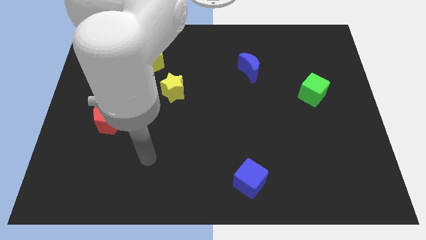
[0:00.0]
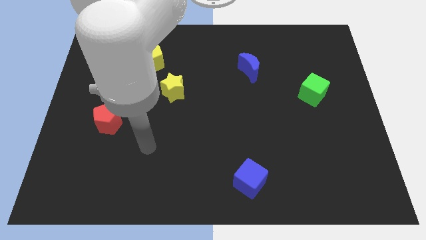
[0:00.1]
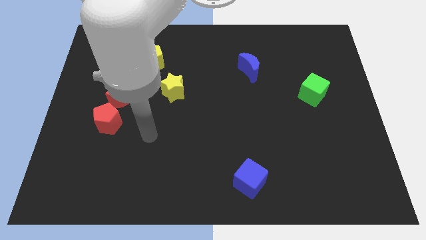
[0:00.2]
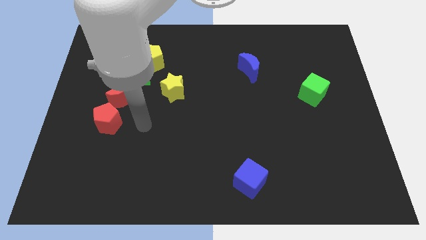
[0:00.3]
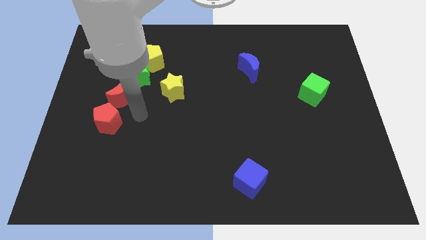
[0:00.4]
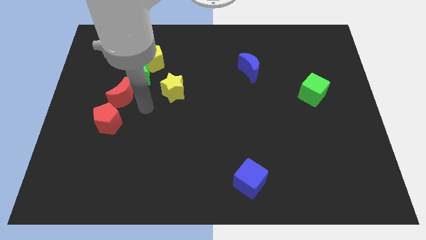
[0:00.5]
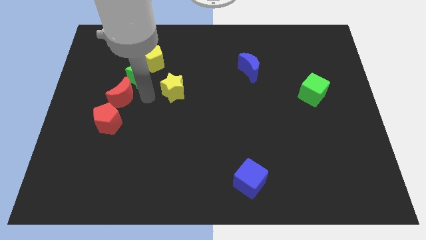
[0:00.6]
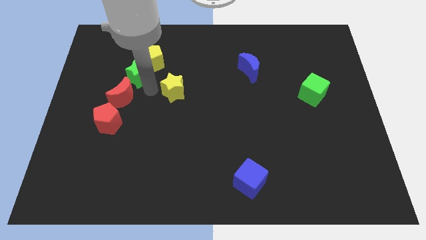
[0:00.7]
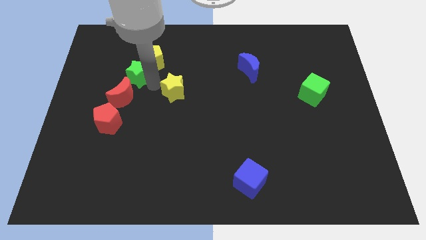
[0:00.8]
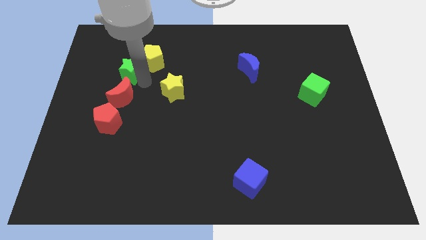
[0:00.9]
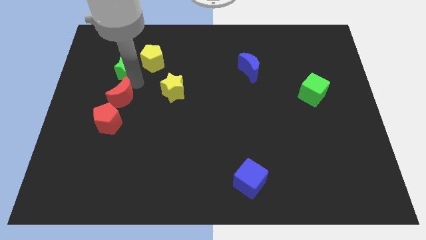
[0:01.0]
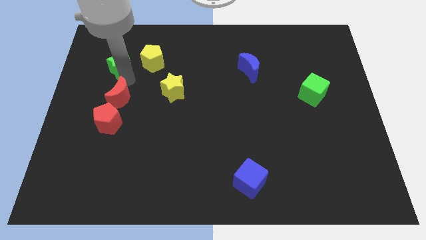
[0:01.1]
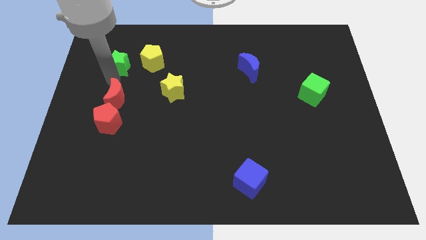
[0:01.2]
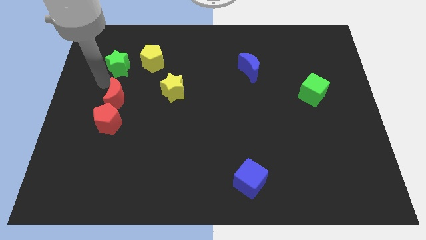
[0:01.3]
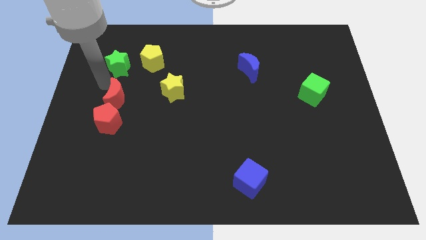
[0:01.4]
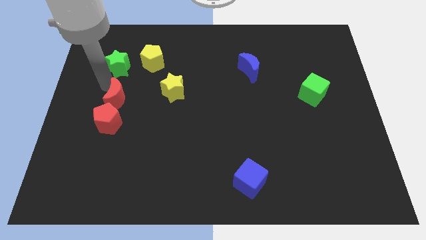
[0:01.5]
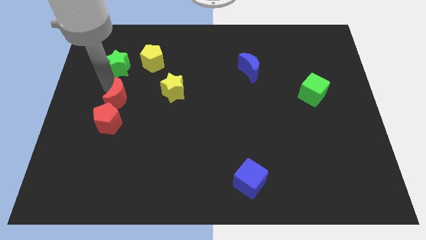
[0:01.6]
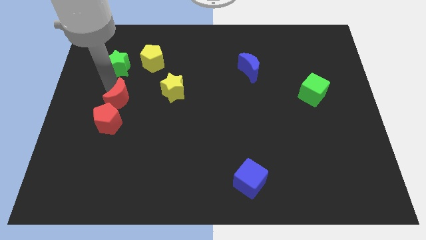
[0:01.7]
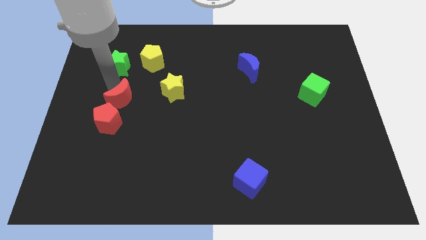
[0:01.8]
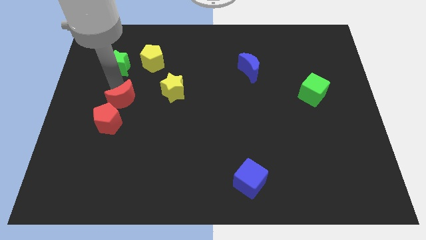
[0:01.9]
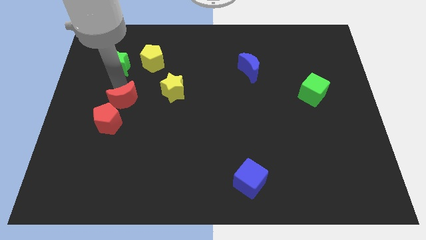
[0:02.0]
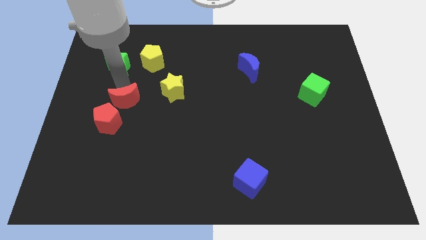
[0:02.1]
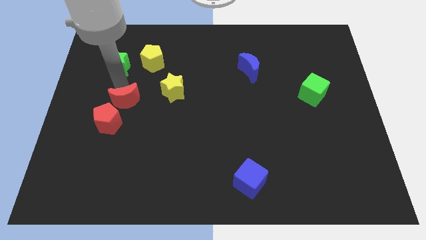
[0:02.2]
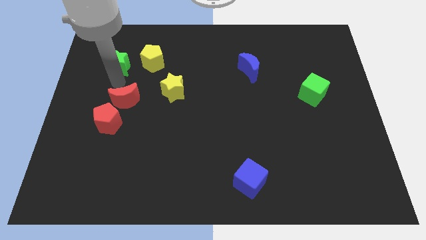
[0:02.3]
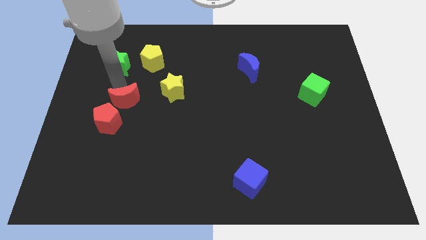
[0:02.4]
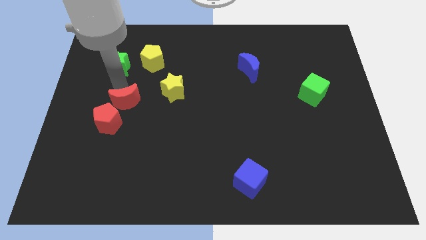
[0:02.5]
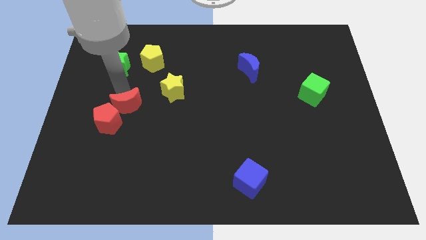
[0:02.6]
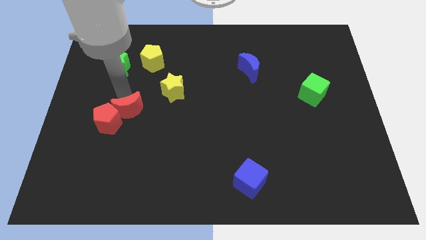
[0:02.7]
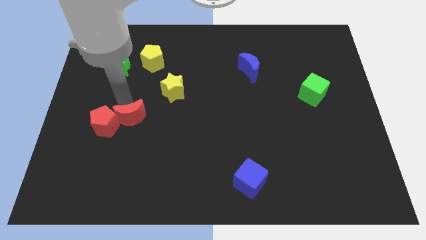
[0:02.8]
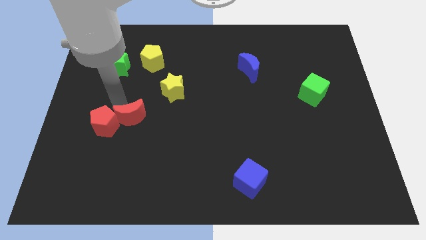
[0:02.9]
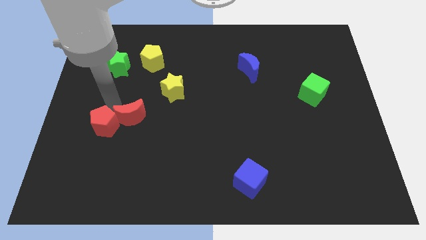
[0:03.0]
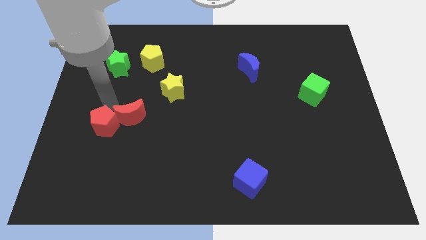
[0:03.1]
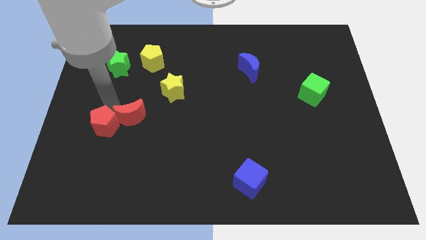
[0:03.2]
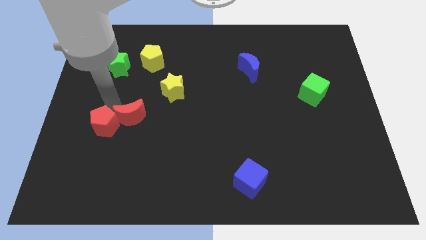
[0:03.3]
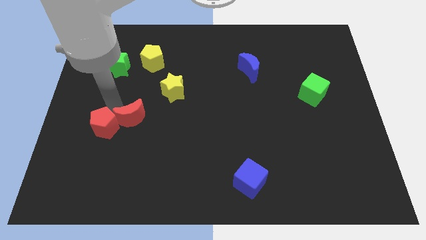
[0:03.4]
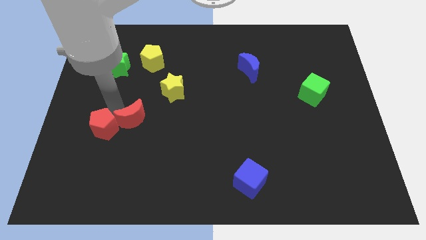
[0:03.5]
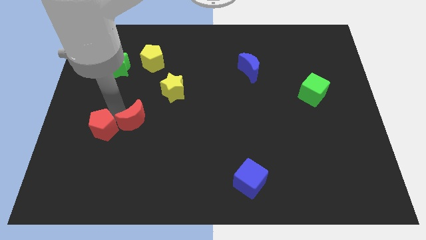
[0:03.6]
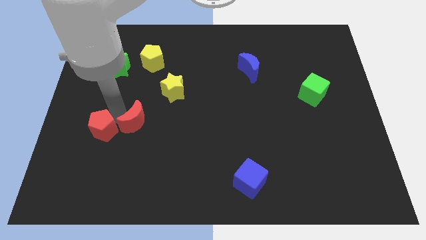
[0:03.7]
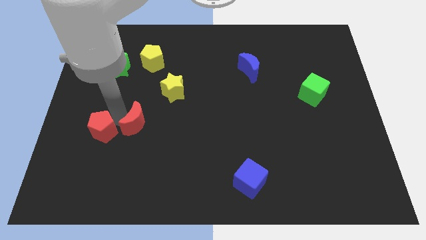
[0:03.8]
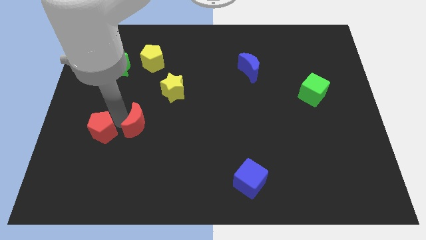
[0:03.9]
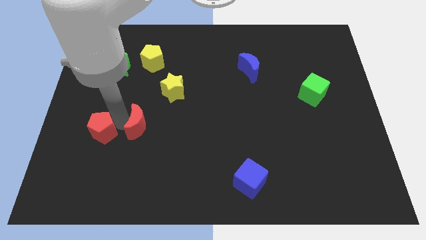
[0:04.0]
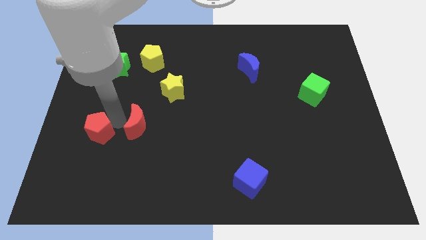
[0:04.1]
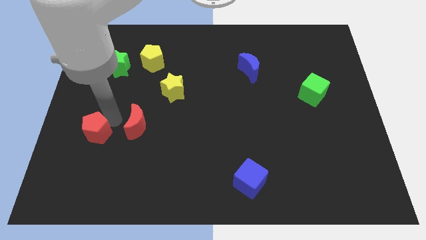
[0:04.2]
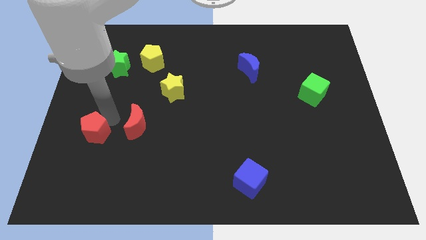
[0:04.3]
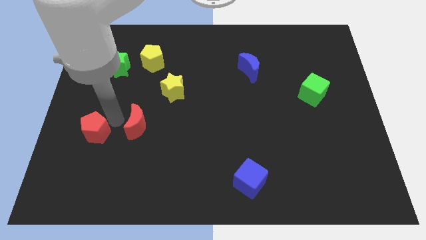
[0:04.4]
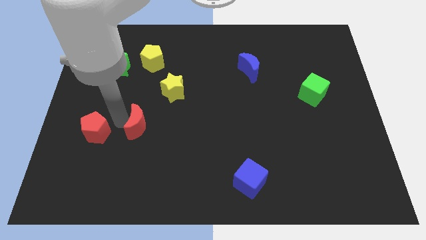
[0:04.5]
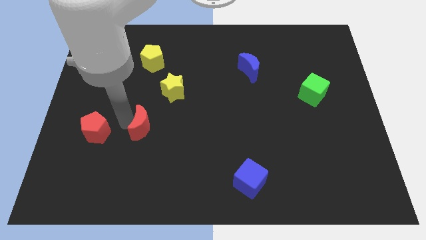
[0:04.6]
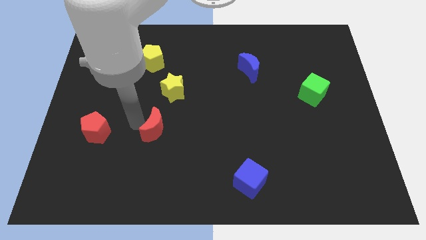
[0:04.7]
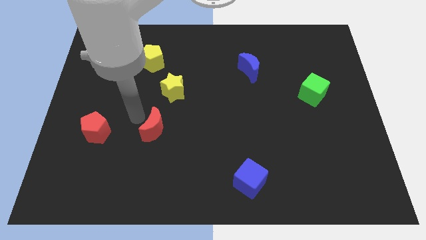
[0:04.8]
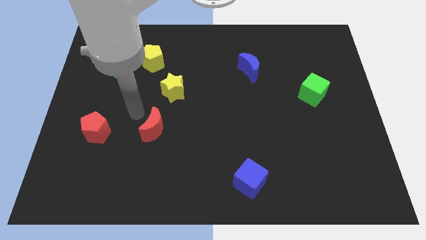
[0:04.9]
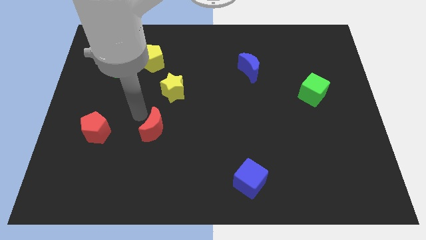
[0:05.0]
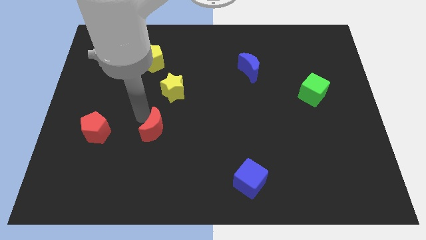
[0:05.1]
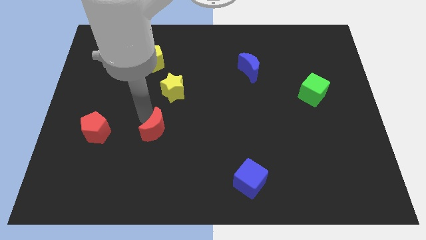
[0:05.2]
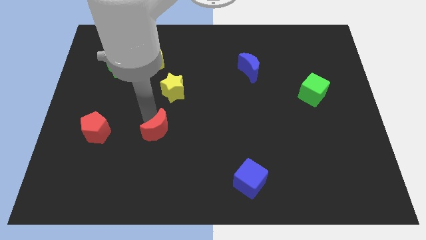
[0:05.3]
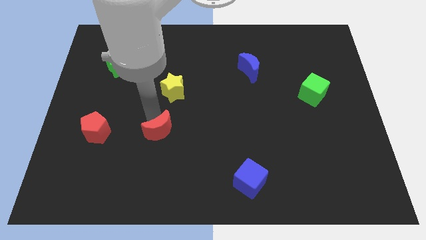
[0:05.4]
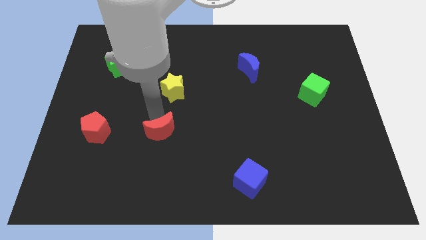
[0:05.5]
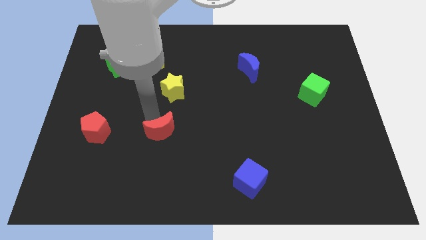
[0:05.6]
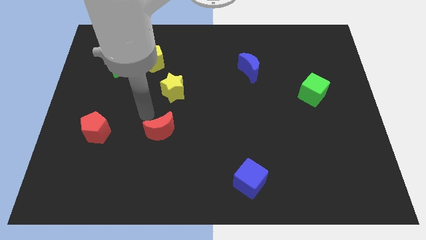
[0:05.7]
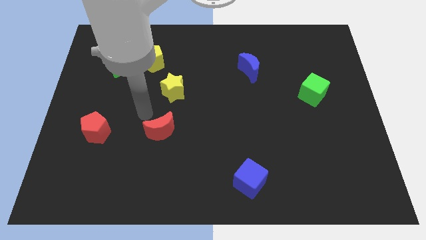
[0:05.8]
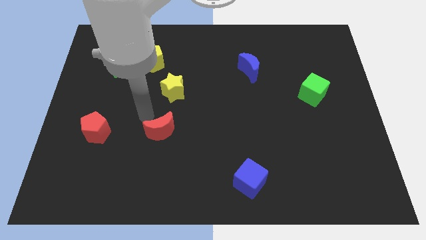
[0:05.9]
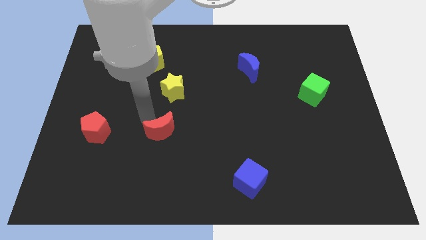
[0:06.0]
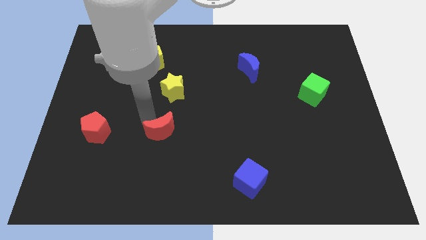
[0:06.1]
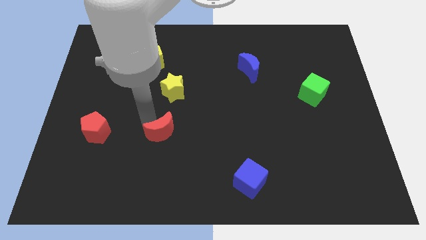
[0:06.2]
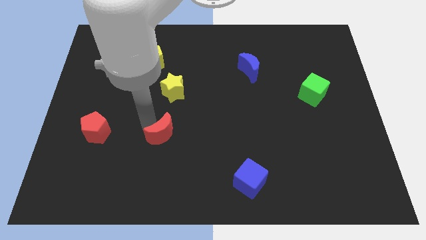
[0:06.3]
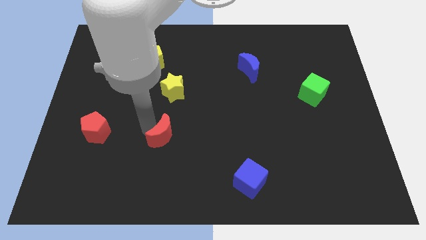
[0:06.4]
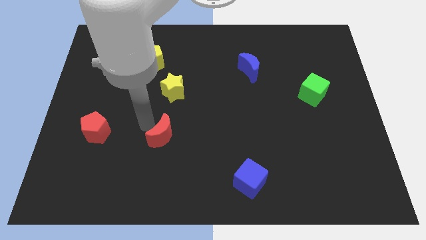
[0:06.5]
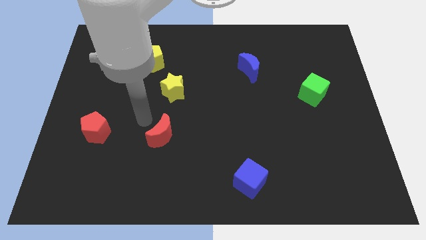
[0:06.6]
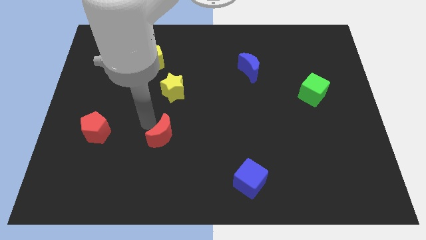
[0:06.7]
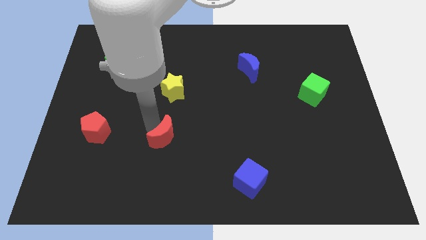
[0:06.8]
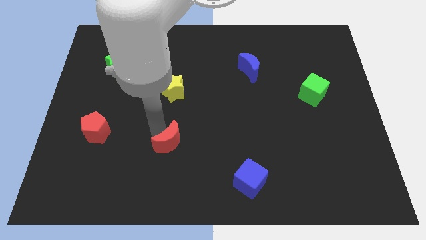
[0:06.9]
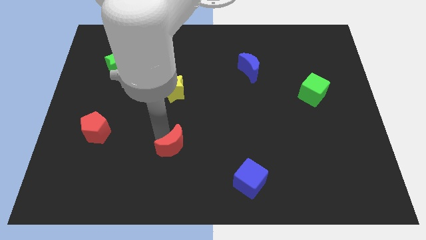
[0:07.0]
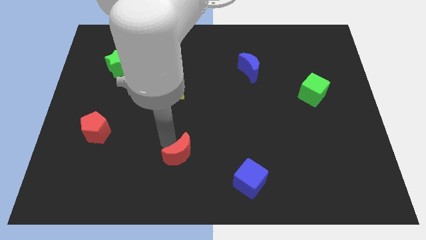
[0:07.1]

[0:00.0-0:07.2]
push the red moon downwards and to the right diagonally

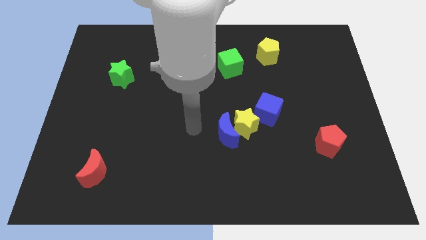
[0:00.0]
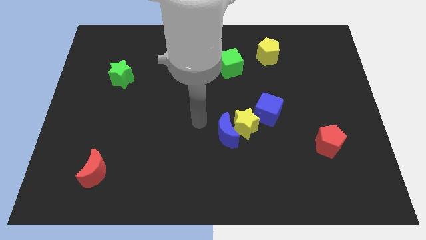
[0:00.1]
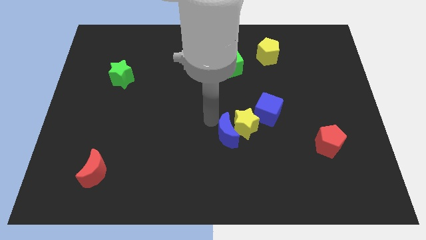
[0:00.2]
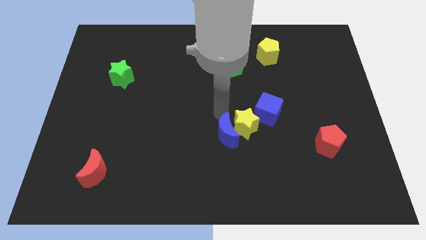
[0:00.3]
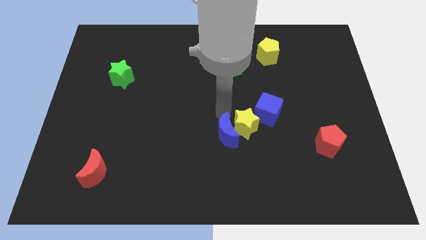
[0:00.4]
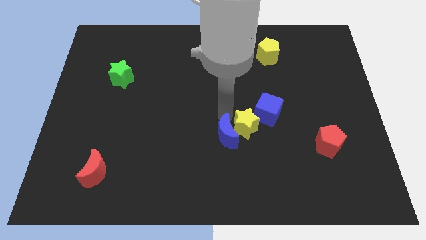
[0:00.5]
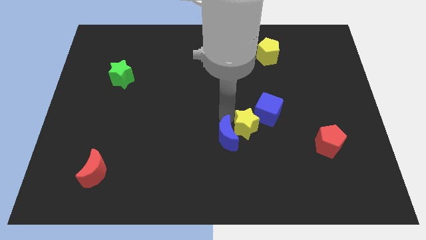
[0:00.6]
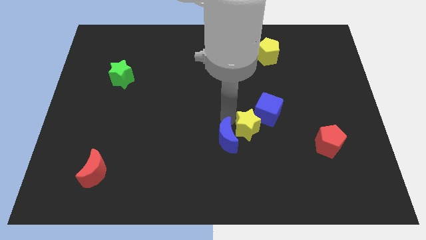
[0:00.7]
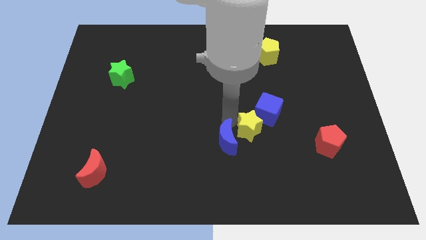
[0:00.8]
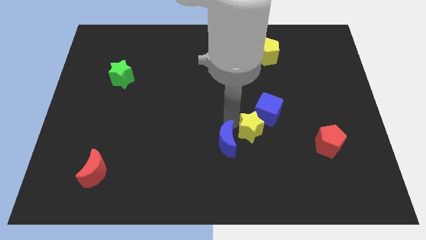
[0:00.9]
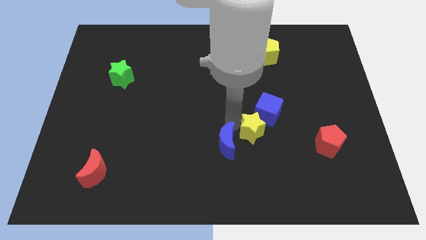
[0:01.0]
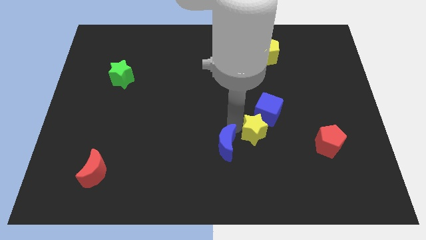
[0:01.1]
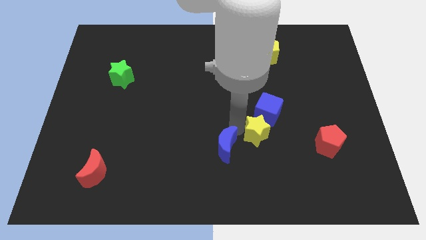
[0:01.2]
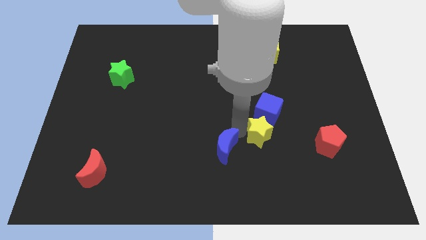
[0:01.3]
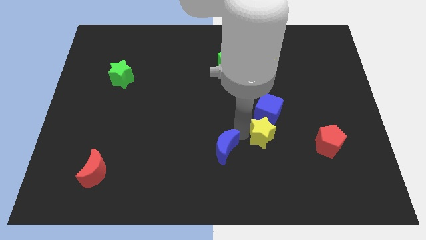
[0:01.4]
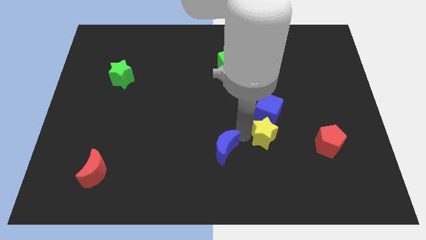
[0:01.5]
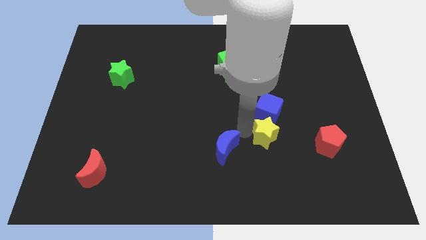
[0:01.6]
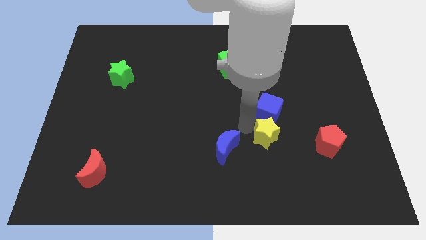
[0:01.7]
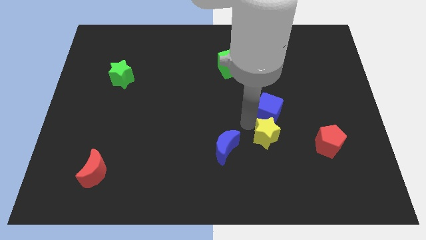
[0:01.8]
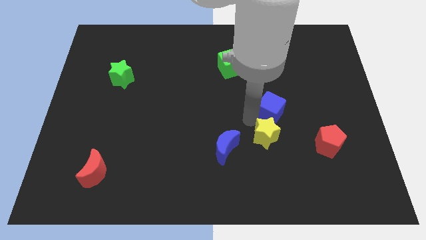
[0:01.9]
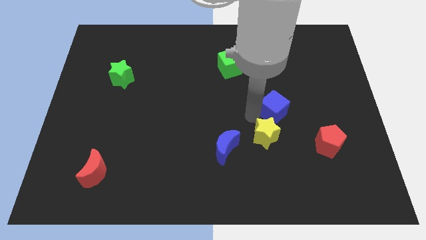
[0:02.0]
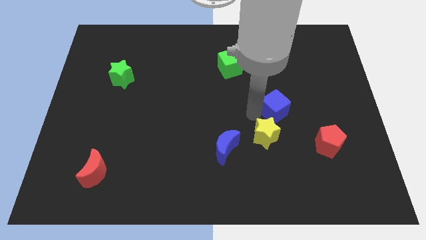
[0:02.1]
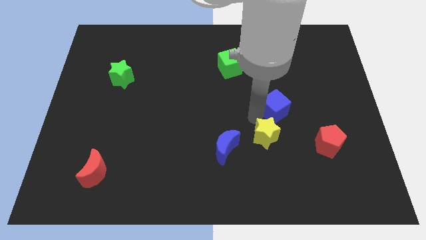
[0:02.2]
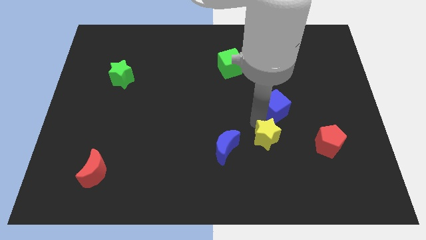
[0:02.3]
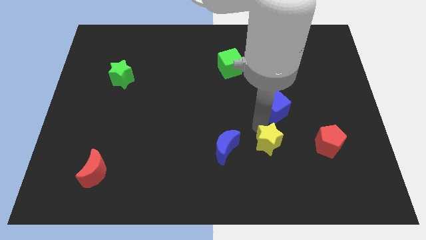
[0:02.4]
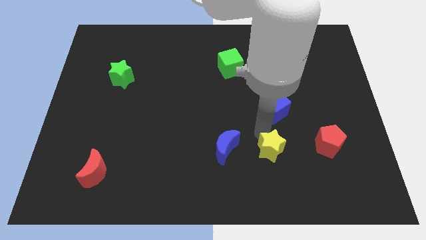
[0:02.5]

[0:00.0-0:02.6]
slightly push the yellow star diagonally downwards and to the right
